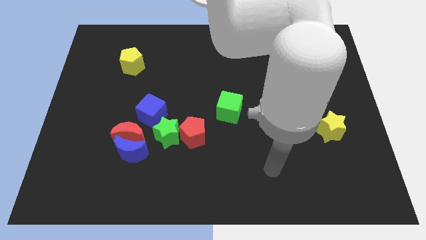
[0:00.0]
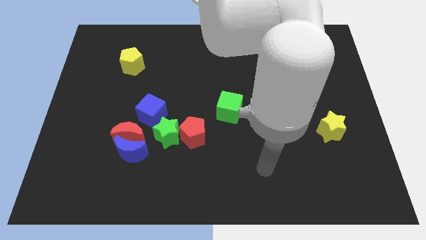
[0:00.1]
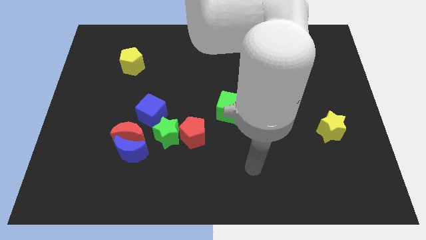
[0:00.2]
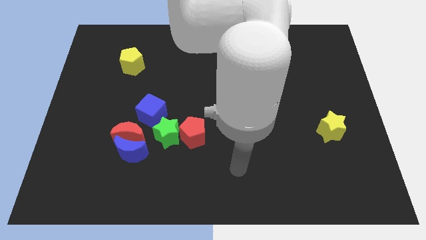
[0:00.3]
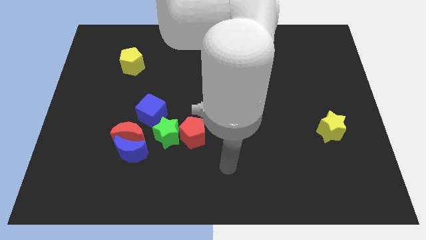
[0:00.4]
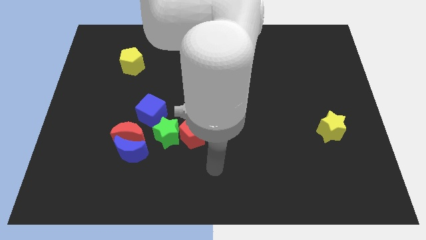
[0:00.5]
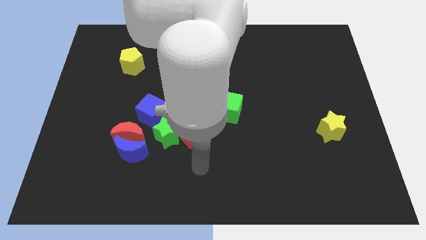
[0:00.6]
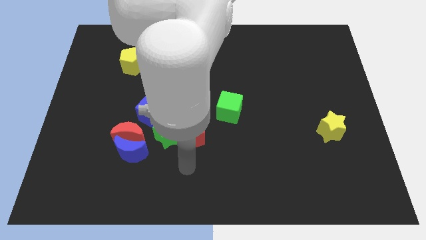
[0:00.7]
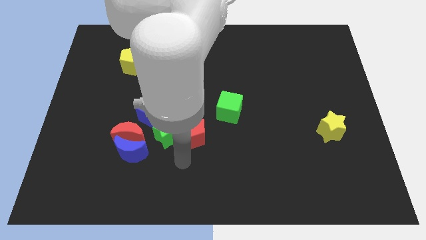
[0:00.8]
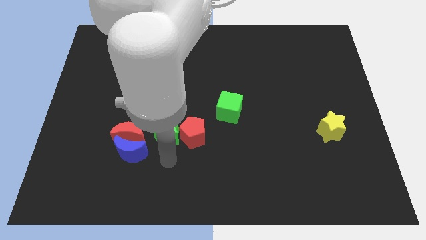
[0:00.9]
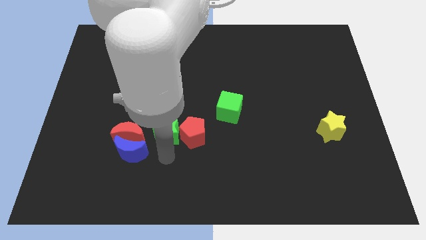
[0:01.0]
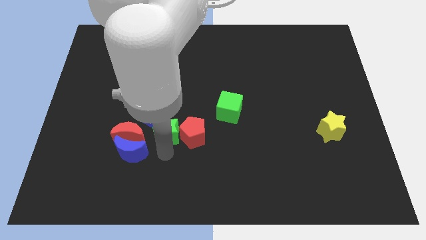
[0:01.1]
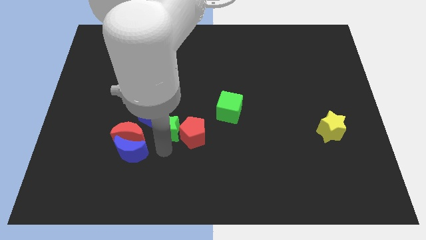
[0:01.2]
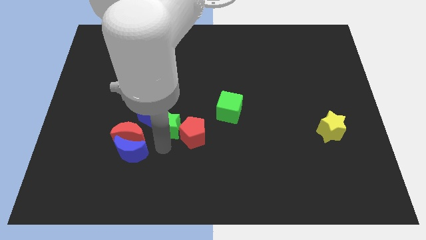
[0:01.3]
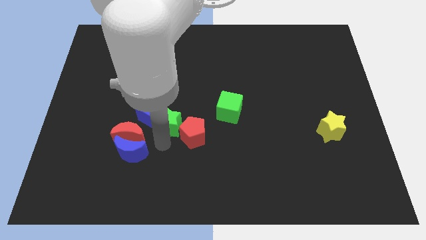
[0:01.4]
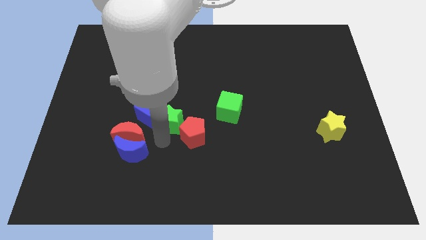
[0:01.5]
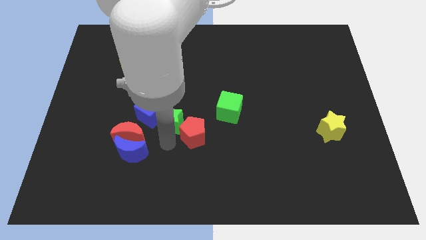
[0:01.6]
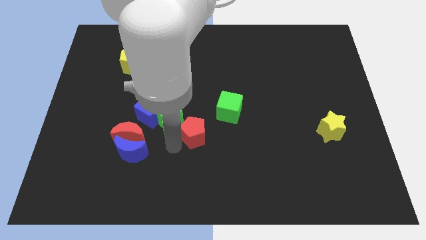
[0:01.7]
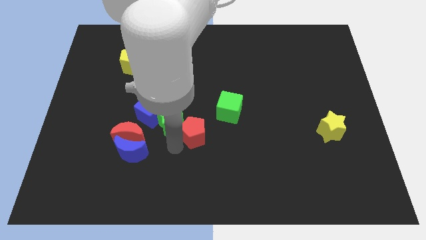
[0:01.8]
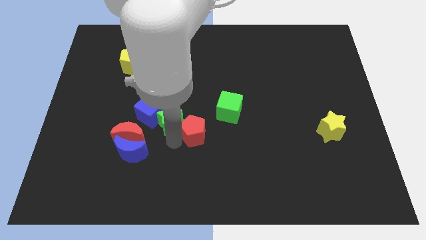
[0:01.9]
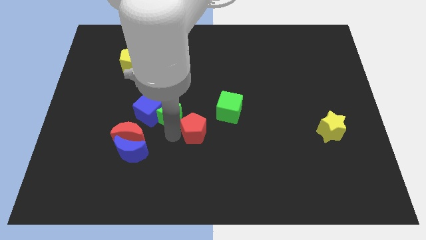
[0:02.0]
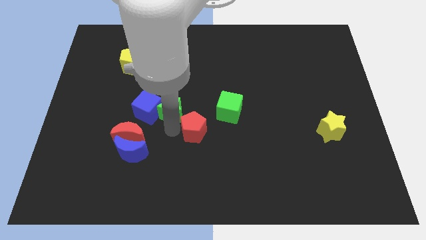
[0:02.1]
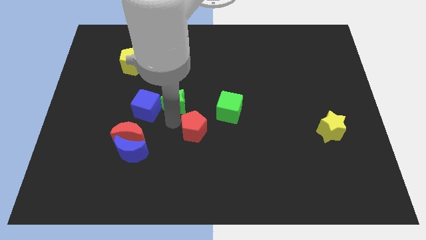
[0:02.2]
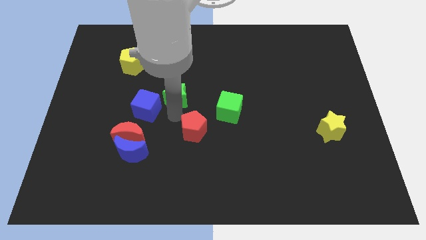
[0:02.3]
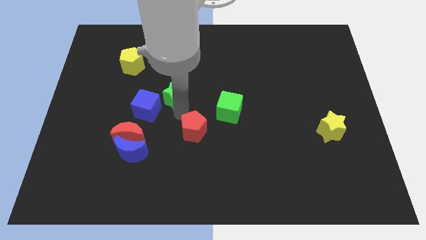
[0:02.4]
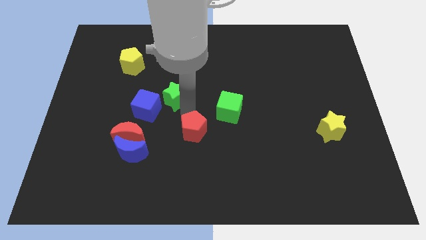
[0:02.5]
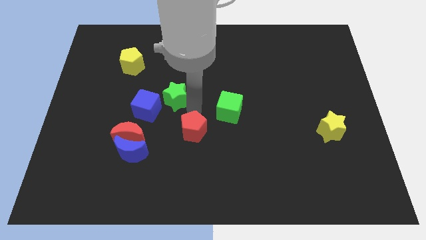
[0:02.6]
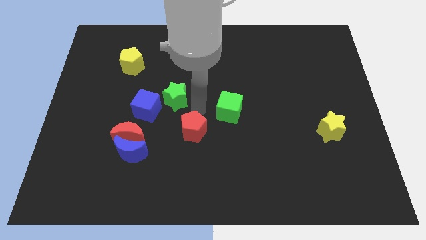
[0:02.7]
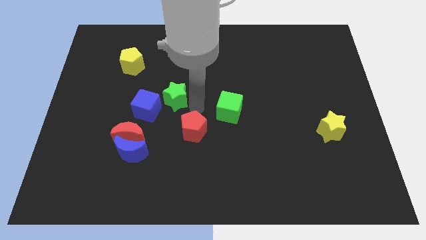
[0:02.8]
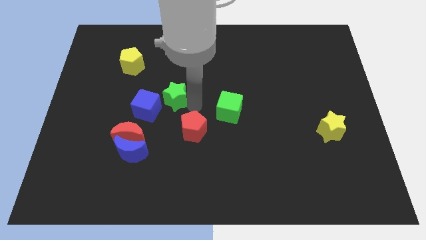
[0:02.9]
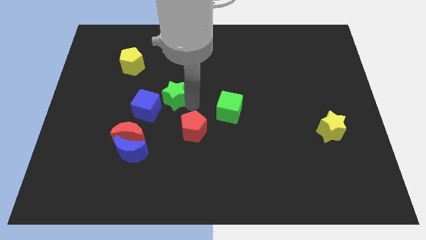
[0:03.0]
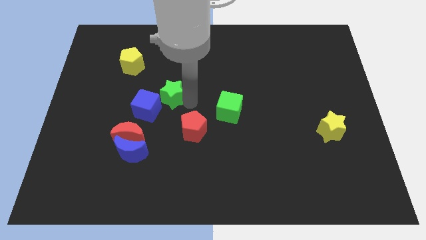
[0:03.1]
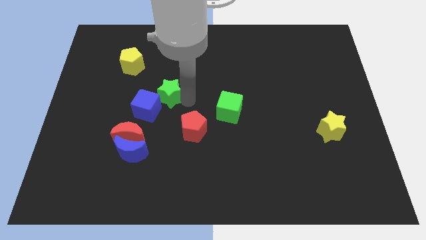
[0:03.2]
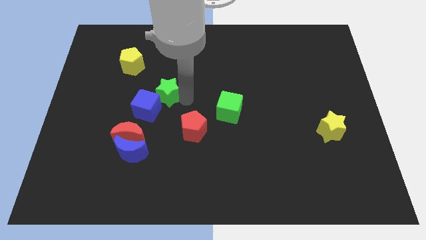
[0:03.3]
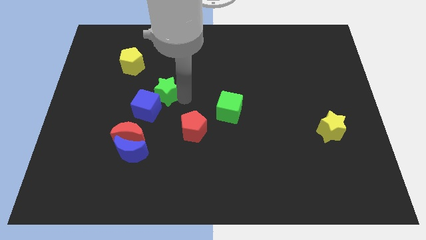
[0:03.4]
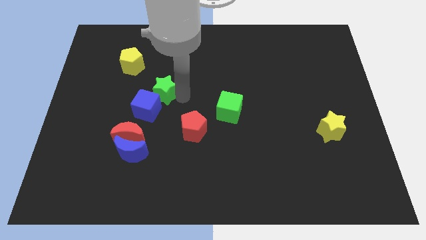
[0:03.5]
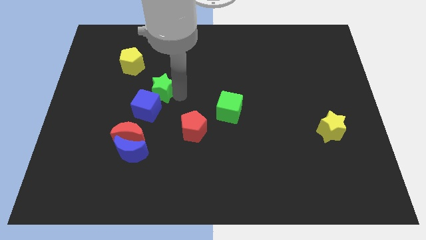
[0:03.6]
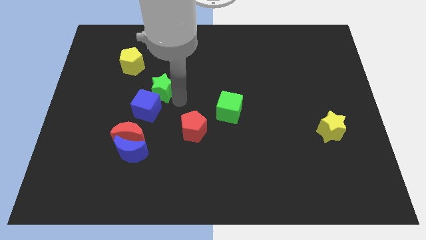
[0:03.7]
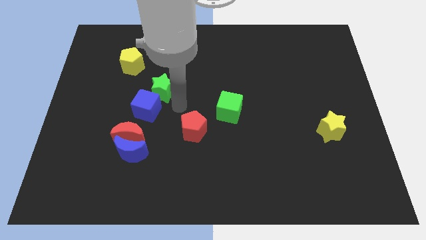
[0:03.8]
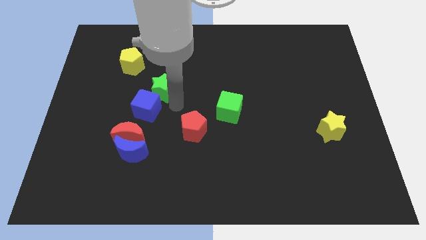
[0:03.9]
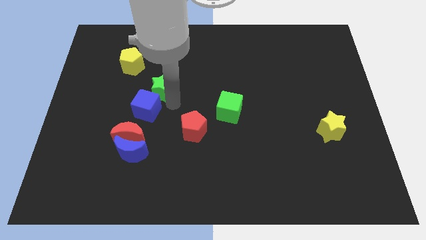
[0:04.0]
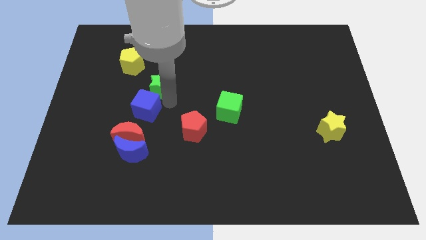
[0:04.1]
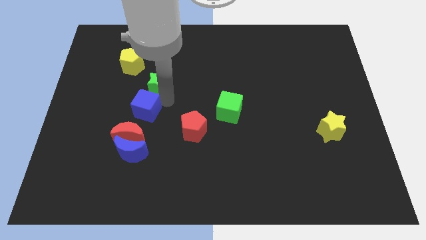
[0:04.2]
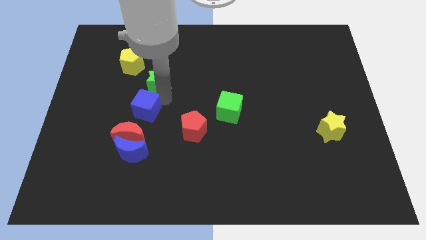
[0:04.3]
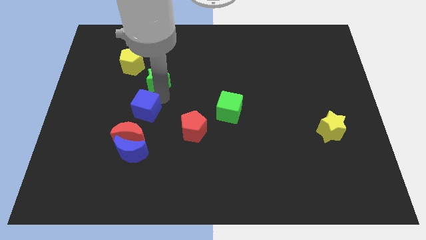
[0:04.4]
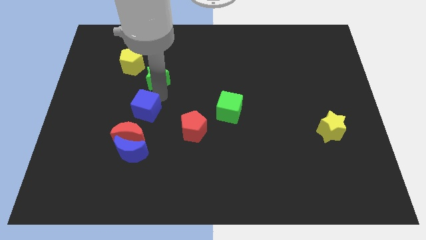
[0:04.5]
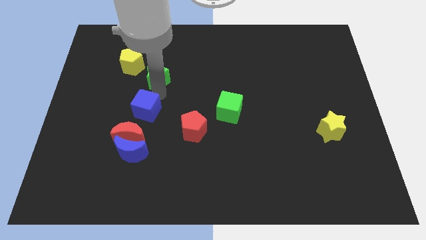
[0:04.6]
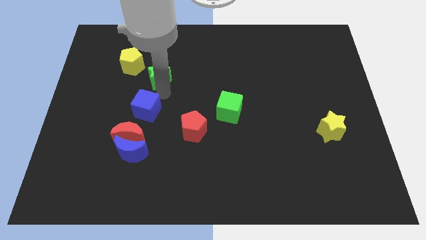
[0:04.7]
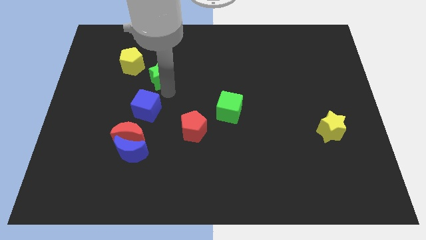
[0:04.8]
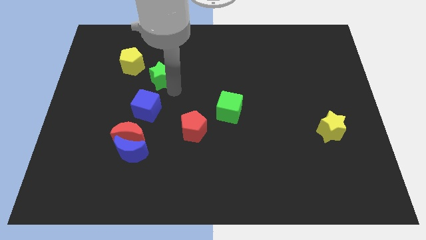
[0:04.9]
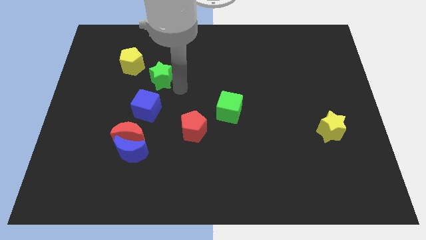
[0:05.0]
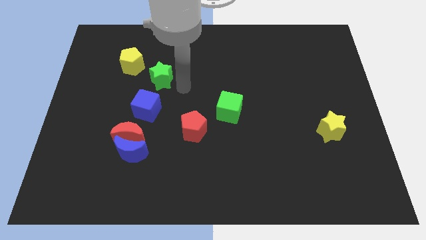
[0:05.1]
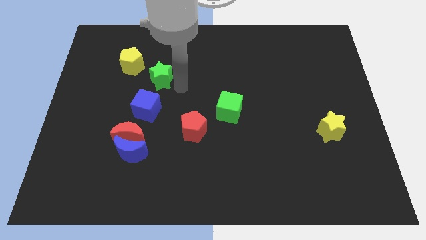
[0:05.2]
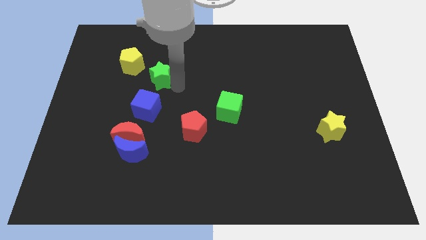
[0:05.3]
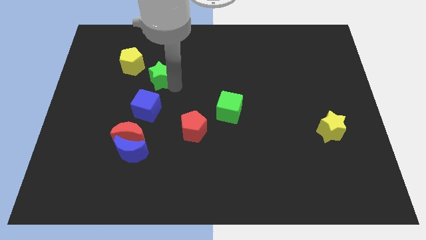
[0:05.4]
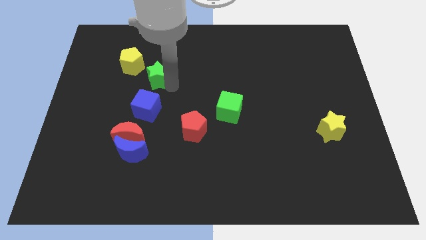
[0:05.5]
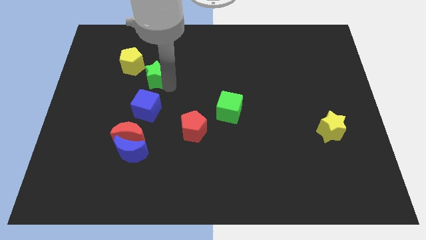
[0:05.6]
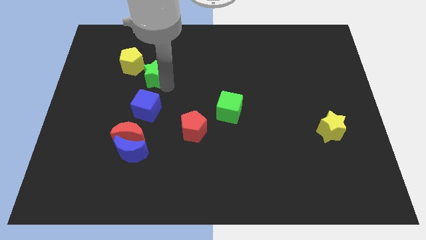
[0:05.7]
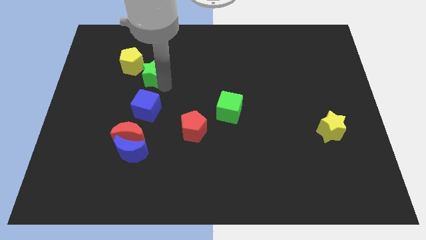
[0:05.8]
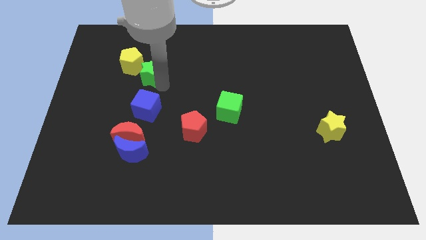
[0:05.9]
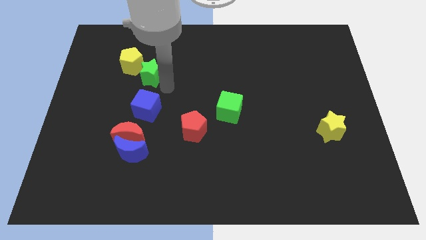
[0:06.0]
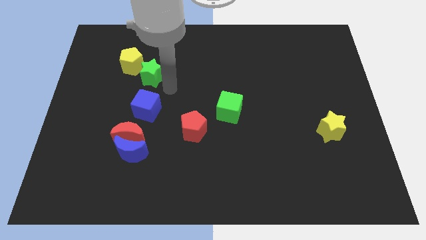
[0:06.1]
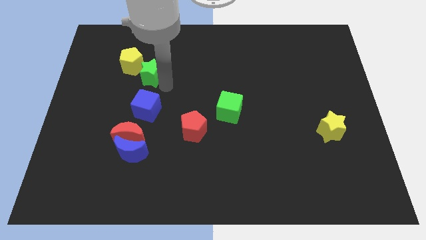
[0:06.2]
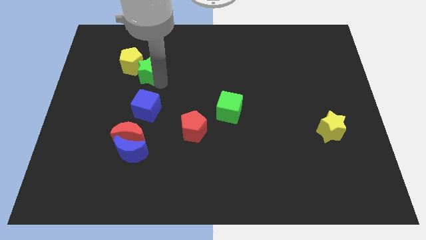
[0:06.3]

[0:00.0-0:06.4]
slide the green star to the yellow pentagon

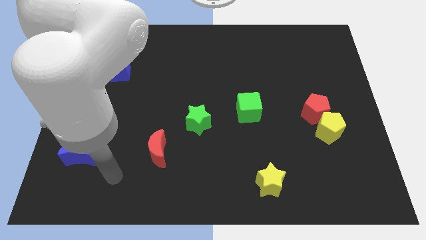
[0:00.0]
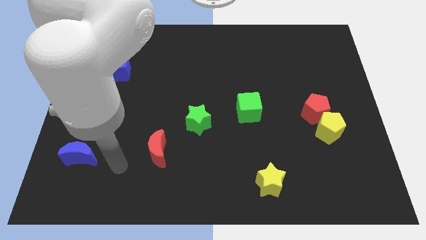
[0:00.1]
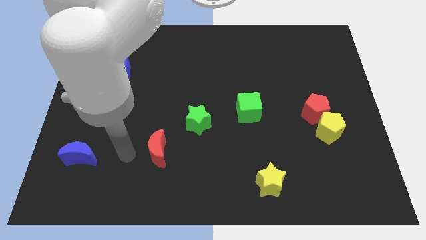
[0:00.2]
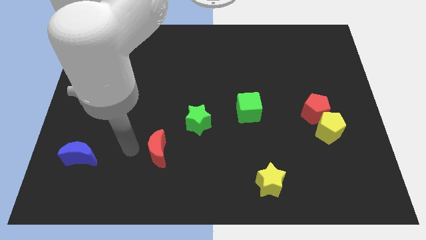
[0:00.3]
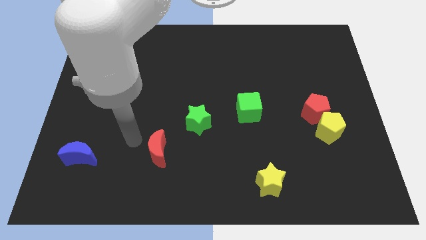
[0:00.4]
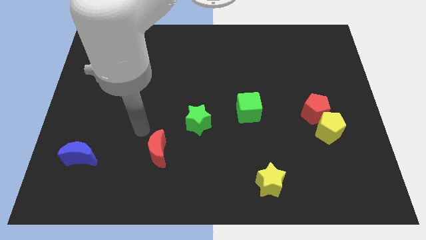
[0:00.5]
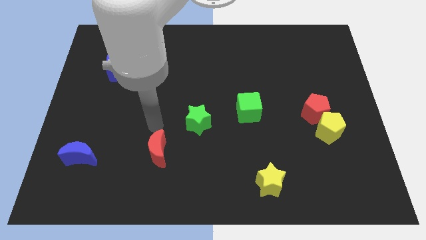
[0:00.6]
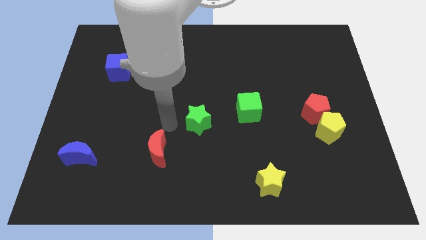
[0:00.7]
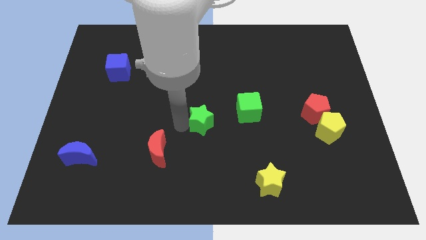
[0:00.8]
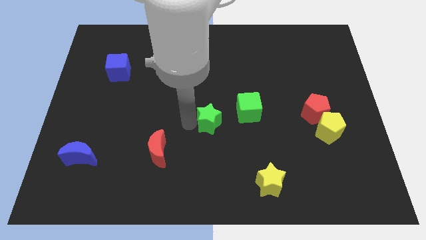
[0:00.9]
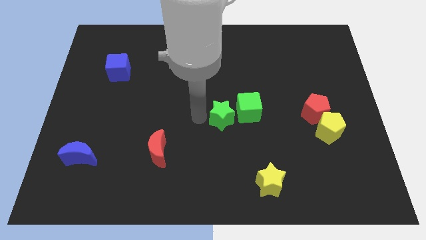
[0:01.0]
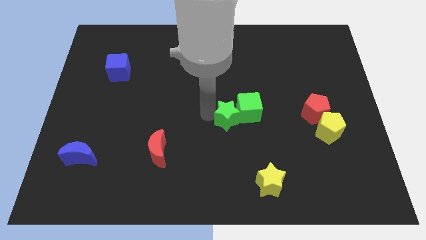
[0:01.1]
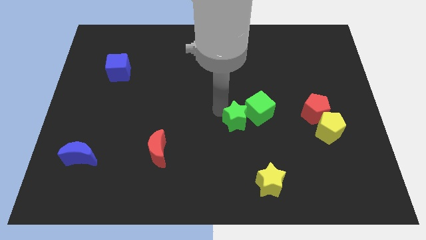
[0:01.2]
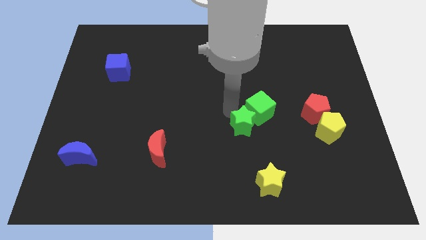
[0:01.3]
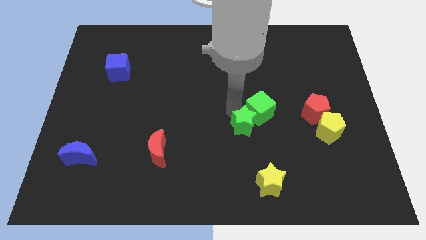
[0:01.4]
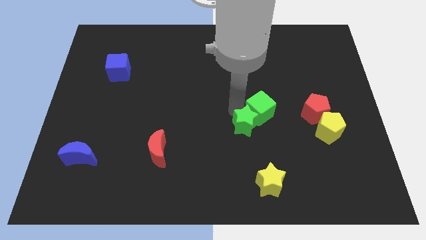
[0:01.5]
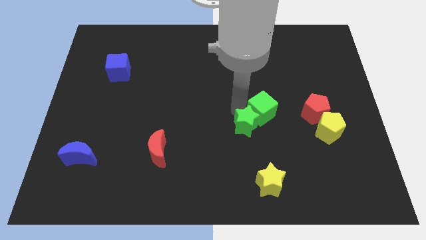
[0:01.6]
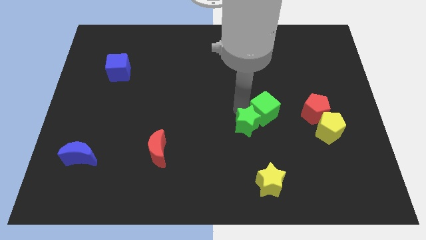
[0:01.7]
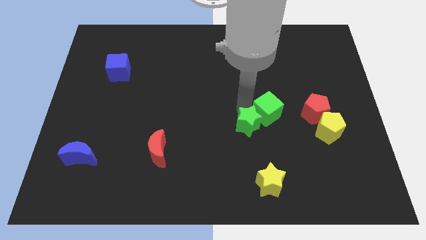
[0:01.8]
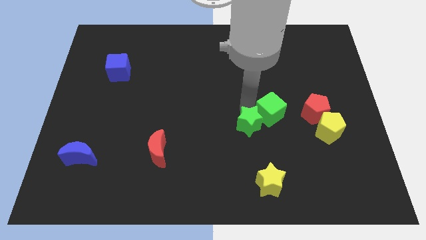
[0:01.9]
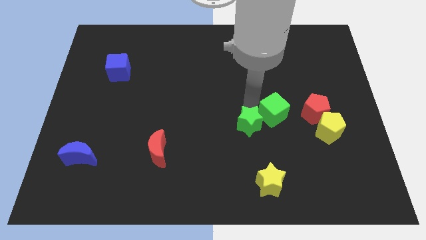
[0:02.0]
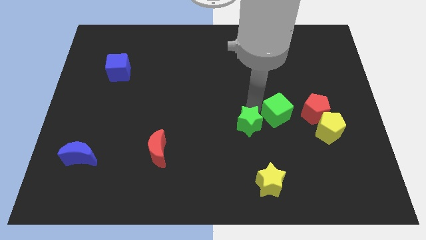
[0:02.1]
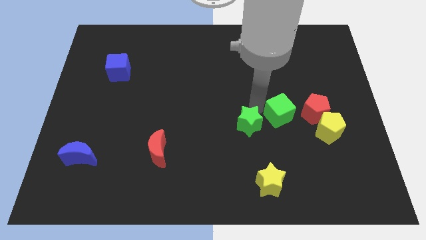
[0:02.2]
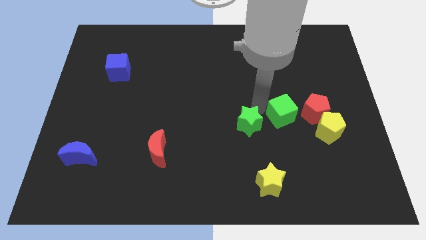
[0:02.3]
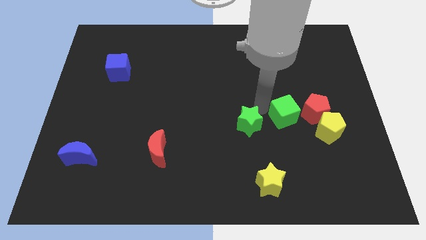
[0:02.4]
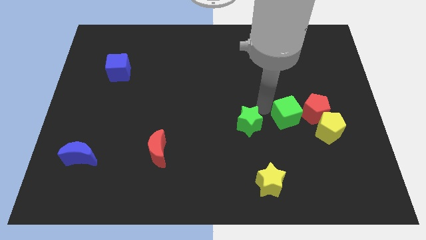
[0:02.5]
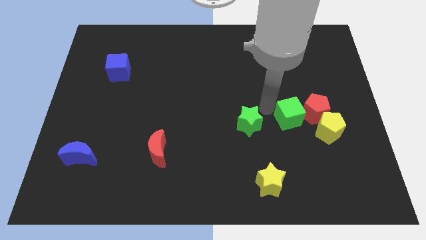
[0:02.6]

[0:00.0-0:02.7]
slide the green cube towards the red pentagon
